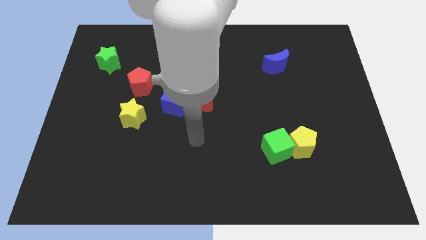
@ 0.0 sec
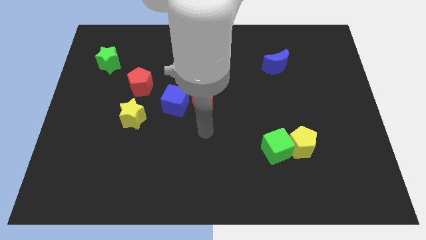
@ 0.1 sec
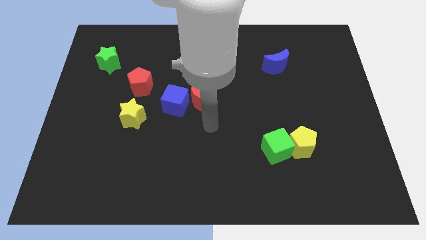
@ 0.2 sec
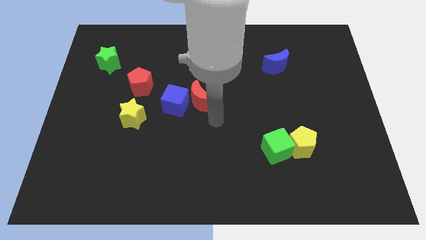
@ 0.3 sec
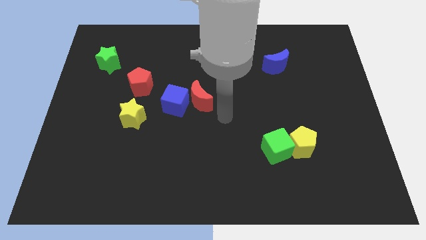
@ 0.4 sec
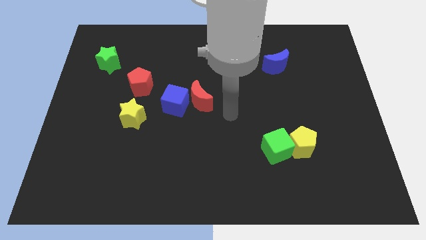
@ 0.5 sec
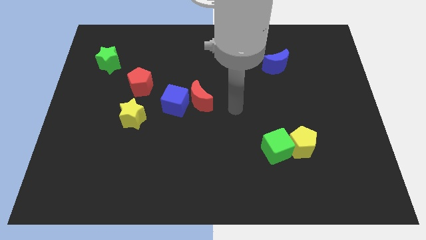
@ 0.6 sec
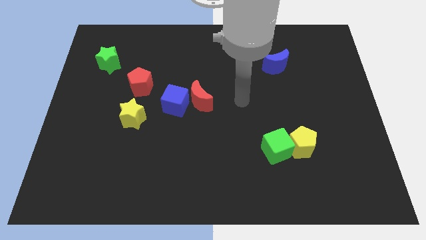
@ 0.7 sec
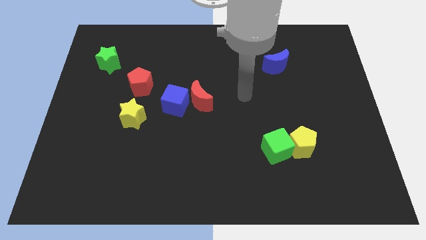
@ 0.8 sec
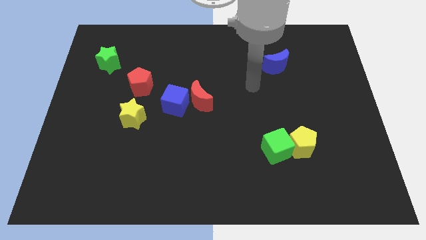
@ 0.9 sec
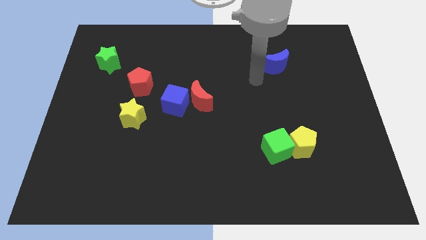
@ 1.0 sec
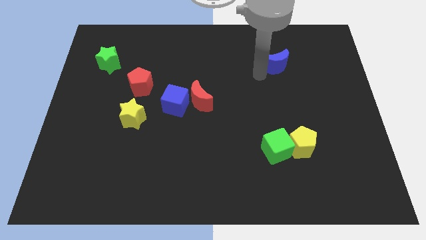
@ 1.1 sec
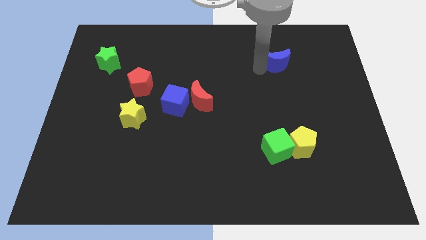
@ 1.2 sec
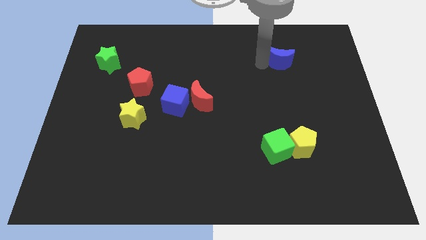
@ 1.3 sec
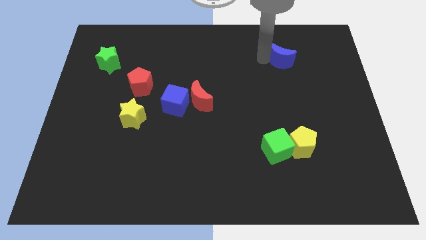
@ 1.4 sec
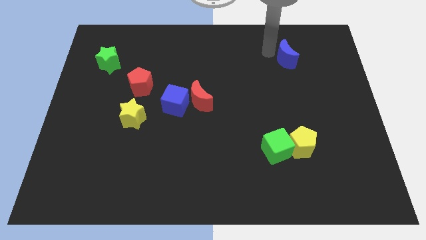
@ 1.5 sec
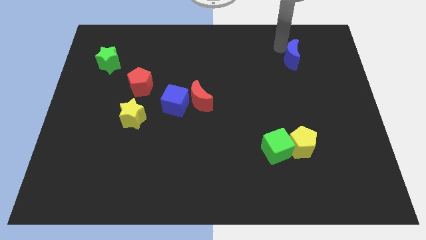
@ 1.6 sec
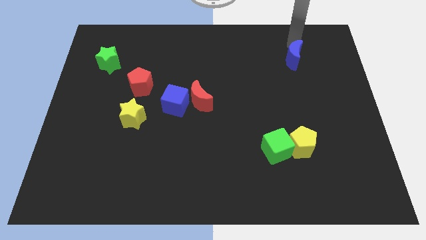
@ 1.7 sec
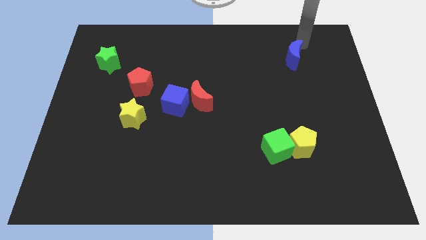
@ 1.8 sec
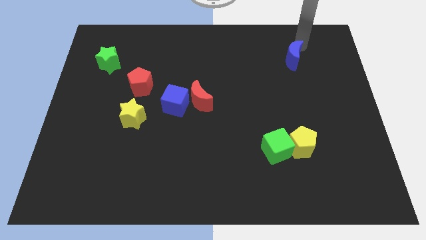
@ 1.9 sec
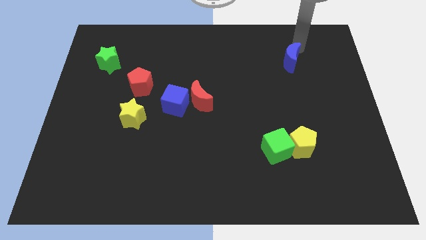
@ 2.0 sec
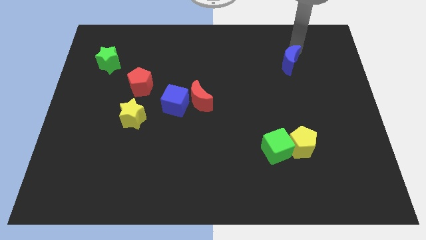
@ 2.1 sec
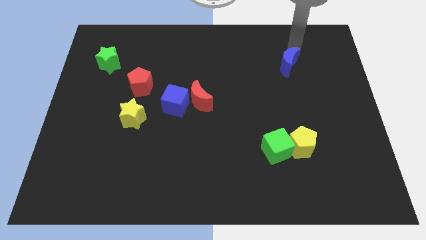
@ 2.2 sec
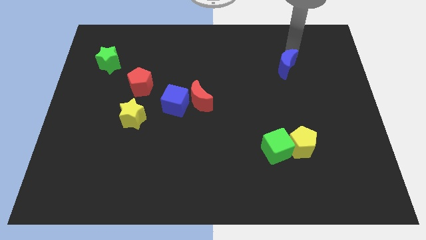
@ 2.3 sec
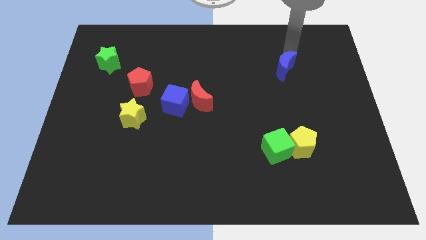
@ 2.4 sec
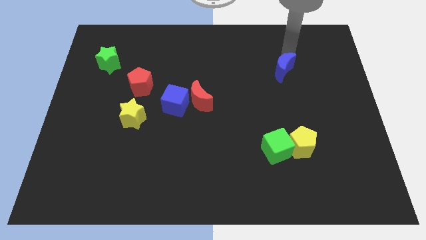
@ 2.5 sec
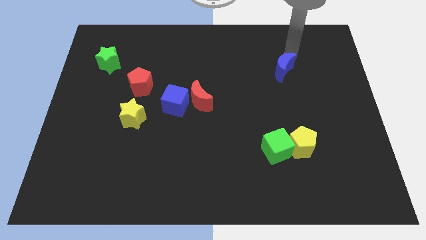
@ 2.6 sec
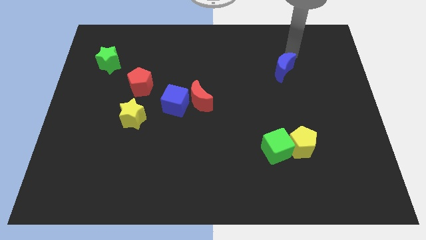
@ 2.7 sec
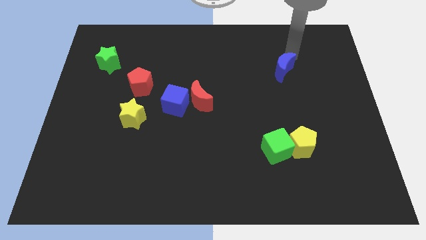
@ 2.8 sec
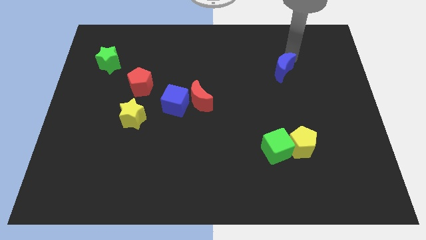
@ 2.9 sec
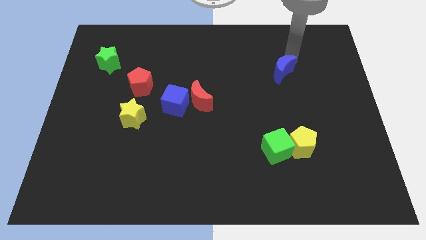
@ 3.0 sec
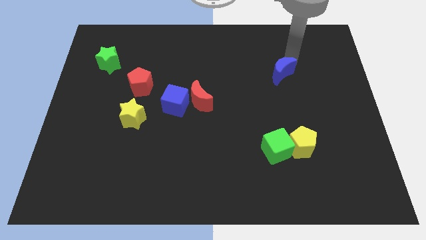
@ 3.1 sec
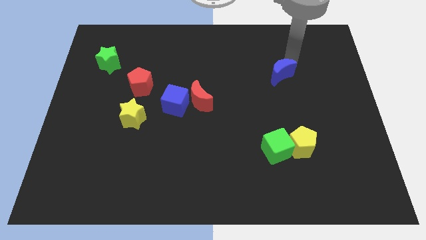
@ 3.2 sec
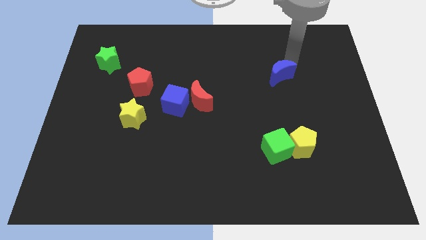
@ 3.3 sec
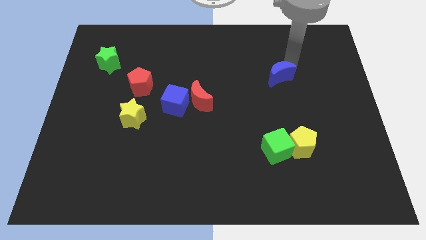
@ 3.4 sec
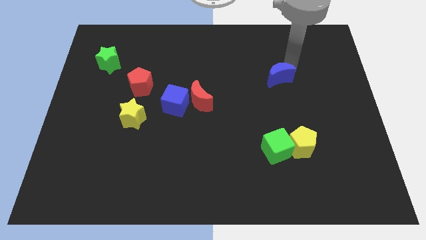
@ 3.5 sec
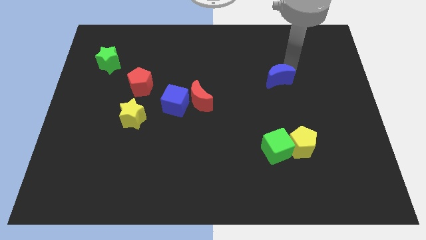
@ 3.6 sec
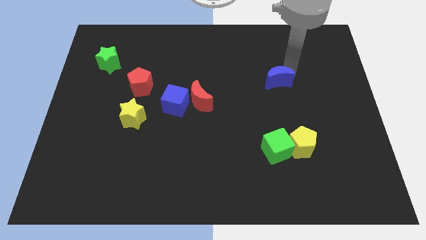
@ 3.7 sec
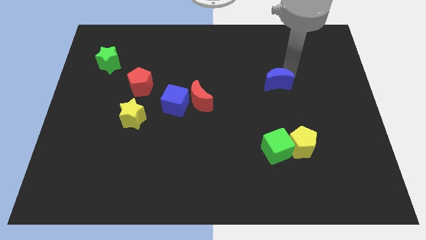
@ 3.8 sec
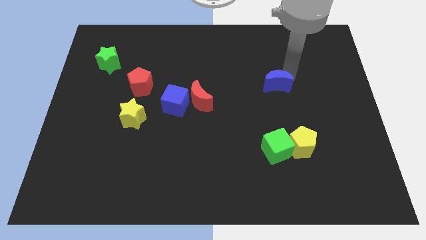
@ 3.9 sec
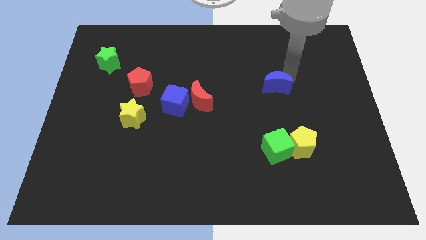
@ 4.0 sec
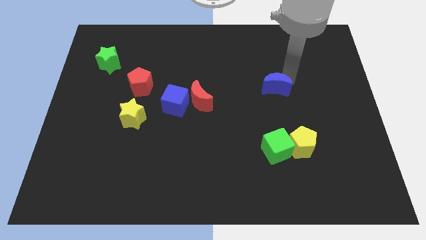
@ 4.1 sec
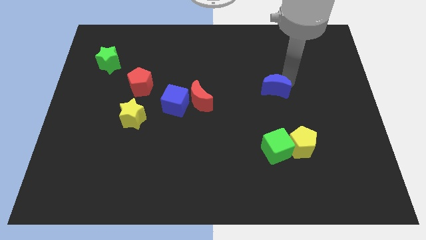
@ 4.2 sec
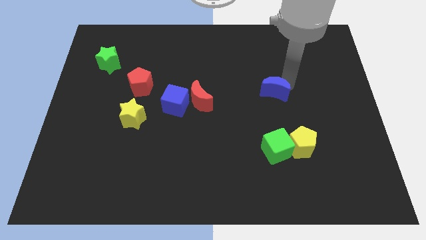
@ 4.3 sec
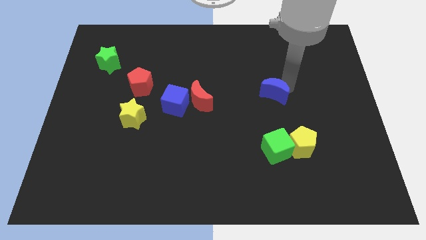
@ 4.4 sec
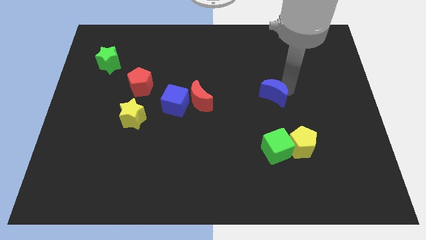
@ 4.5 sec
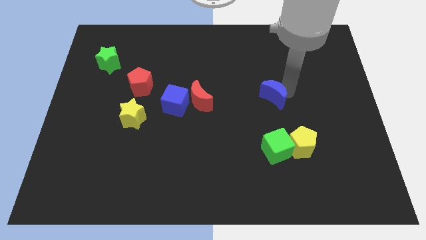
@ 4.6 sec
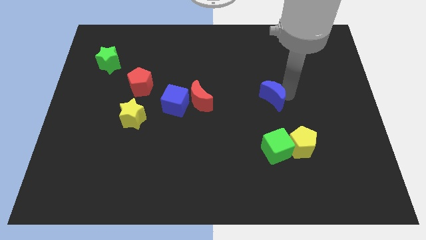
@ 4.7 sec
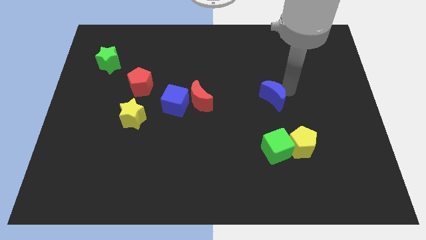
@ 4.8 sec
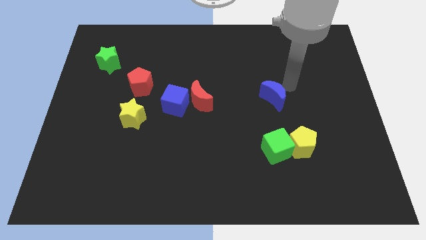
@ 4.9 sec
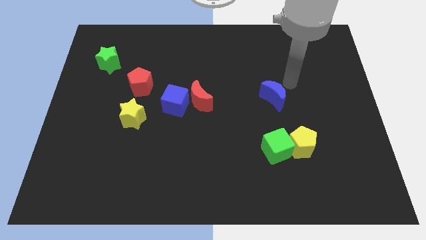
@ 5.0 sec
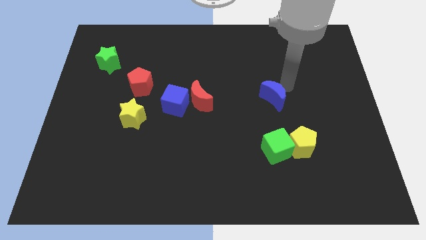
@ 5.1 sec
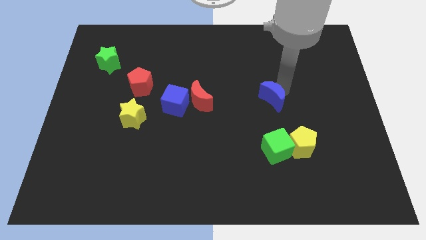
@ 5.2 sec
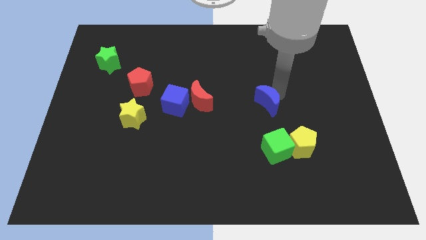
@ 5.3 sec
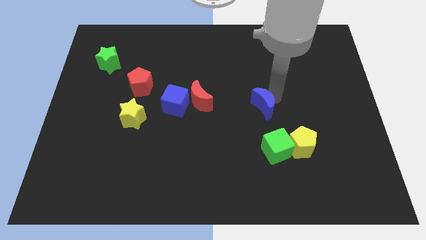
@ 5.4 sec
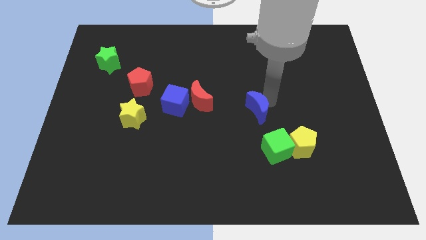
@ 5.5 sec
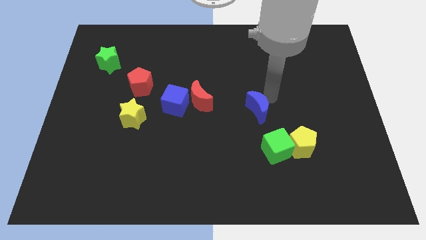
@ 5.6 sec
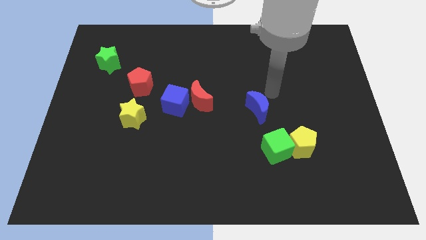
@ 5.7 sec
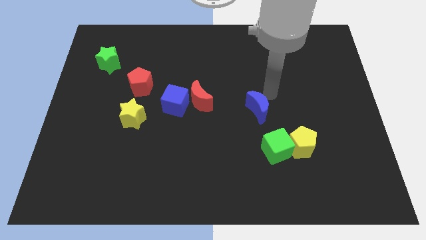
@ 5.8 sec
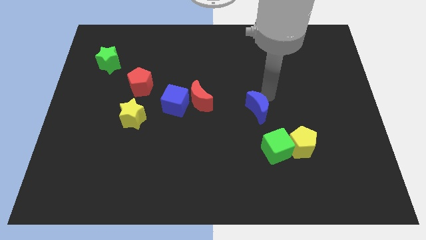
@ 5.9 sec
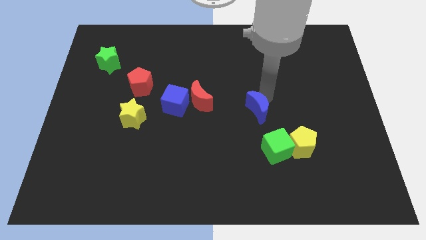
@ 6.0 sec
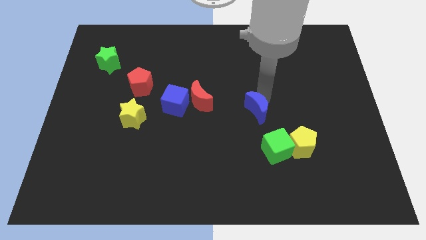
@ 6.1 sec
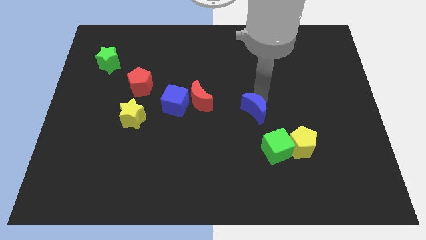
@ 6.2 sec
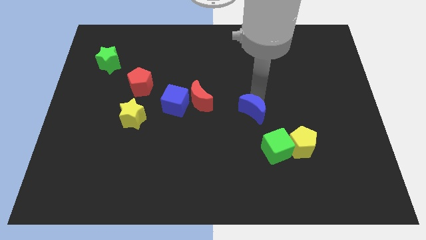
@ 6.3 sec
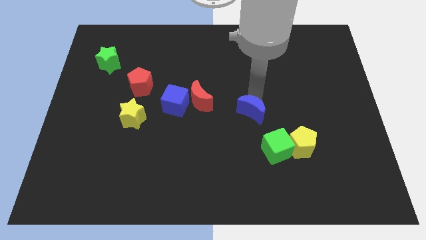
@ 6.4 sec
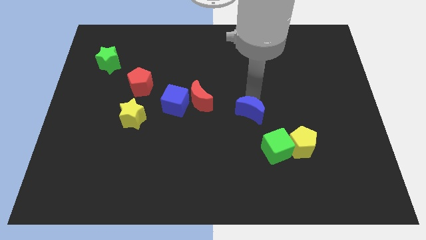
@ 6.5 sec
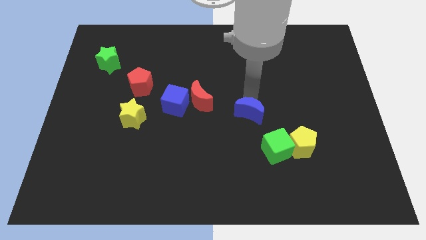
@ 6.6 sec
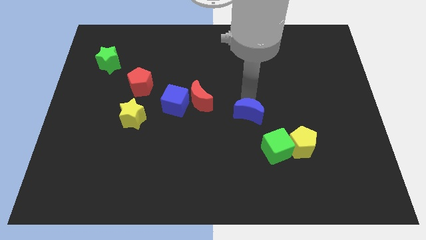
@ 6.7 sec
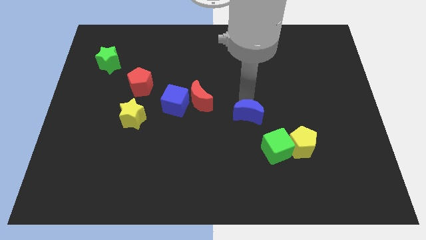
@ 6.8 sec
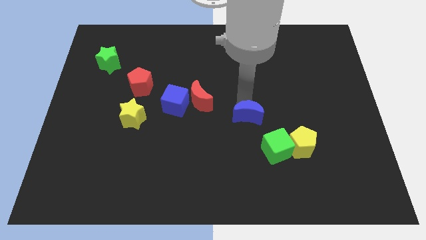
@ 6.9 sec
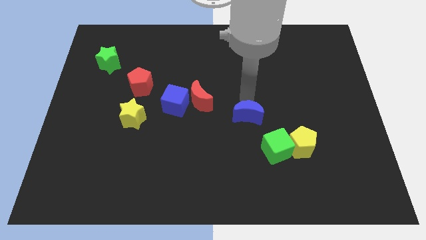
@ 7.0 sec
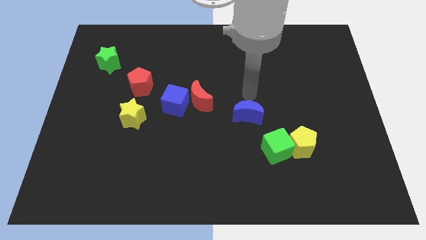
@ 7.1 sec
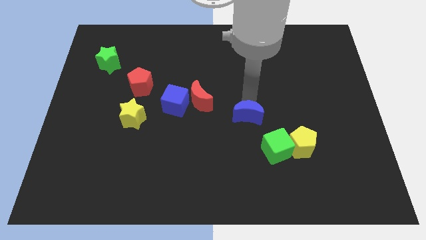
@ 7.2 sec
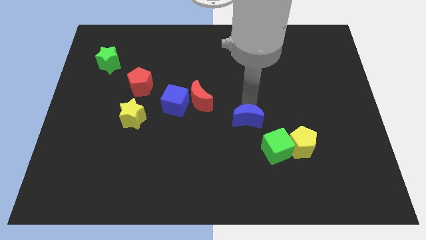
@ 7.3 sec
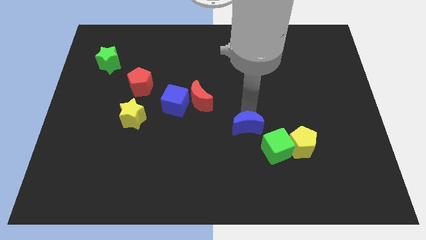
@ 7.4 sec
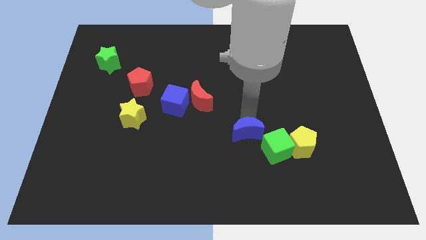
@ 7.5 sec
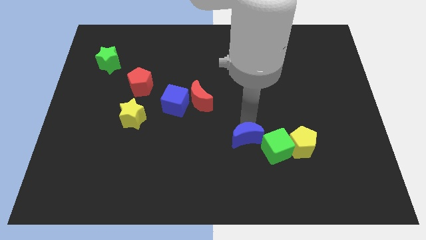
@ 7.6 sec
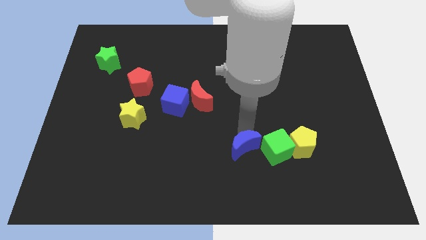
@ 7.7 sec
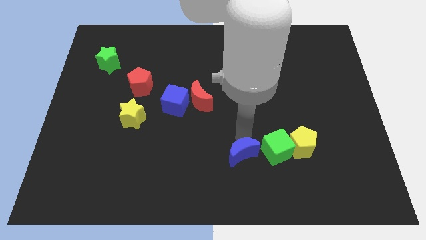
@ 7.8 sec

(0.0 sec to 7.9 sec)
push the blue moon diagonally down and to the left of the green cube
